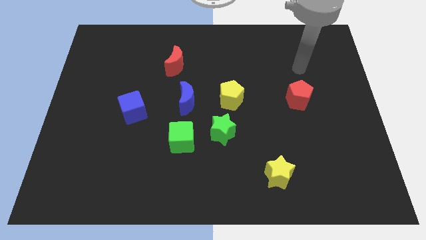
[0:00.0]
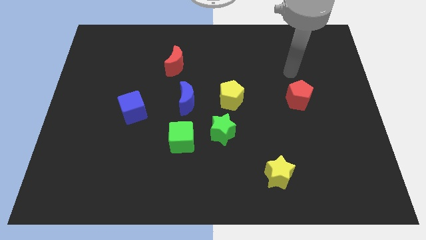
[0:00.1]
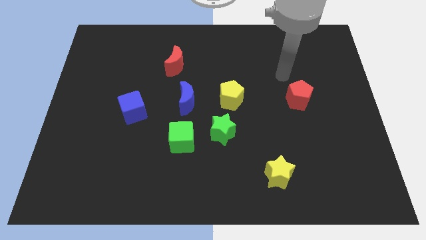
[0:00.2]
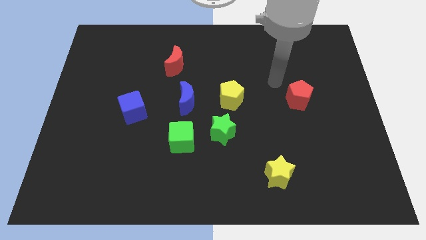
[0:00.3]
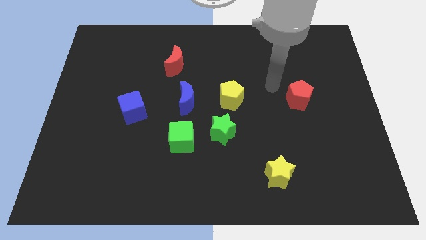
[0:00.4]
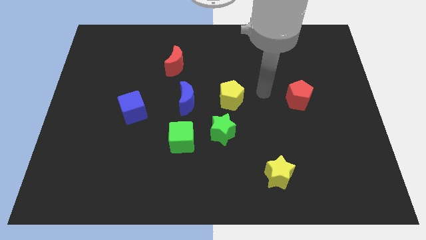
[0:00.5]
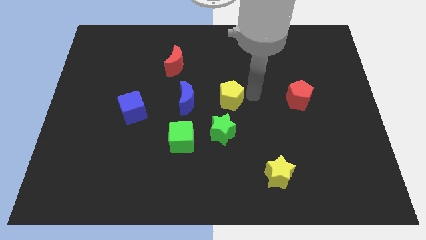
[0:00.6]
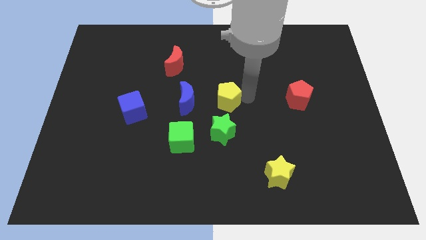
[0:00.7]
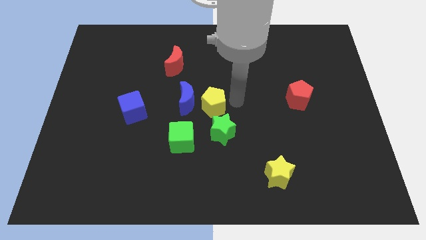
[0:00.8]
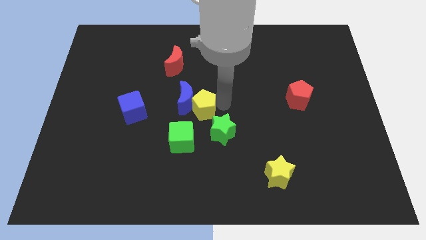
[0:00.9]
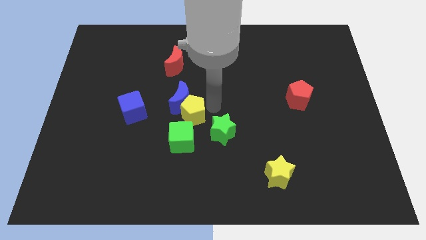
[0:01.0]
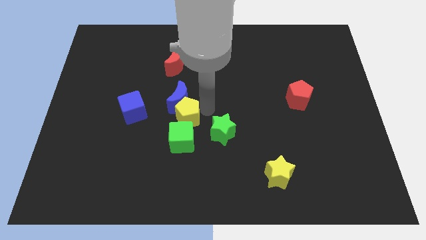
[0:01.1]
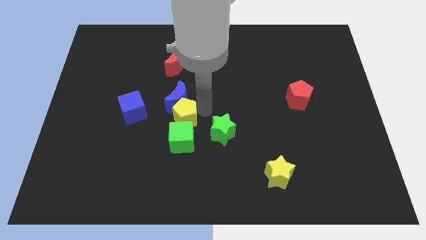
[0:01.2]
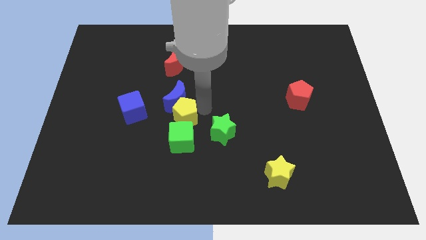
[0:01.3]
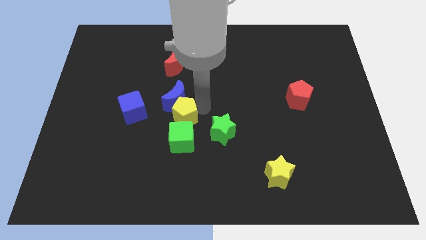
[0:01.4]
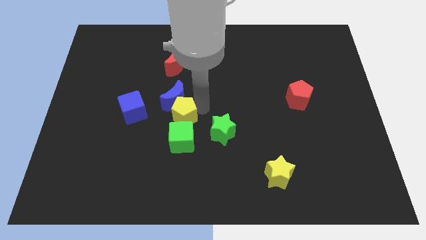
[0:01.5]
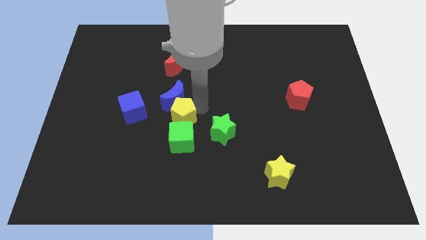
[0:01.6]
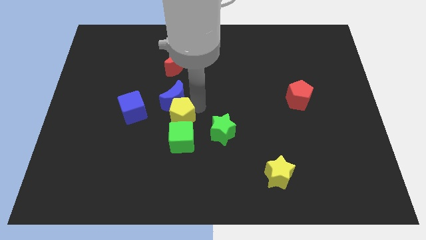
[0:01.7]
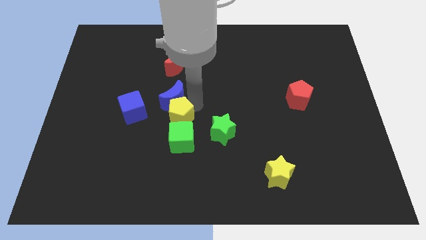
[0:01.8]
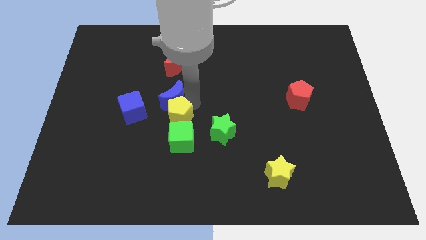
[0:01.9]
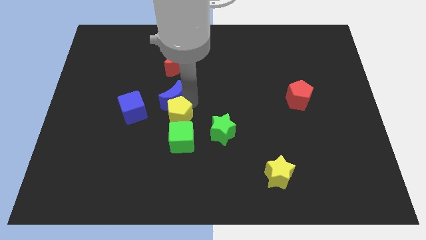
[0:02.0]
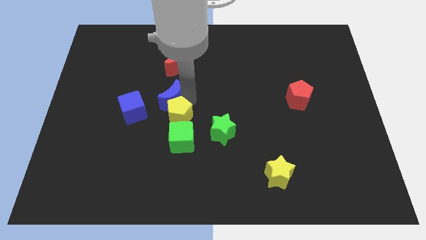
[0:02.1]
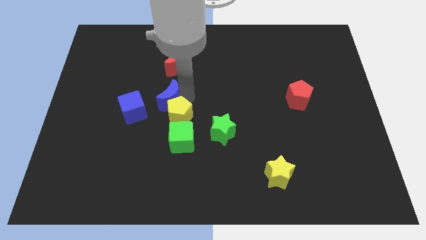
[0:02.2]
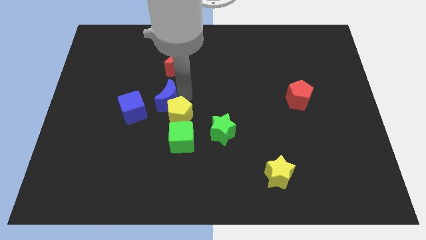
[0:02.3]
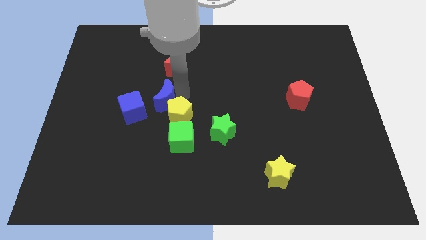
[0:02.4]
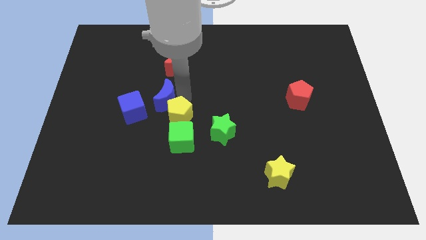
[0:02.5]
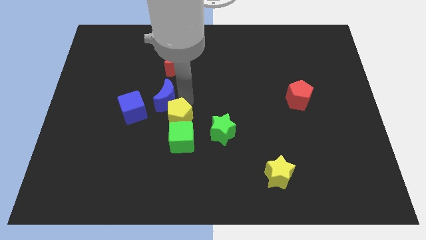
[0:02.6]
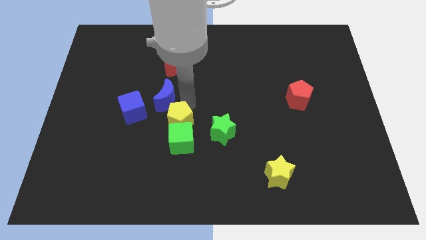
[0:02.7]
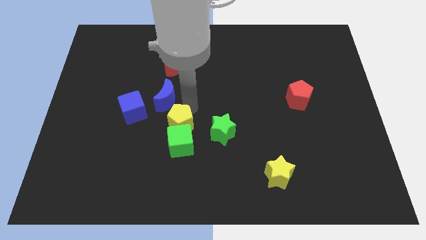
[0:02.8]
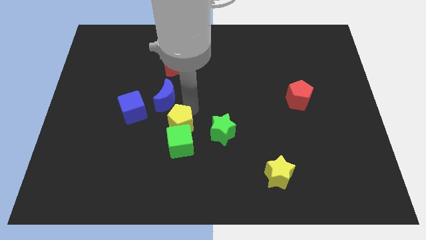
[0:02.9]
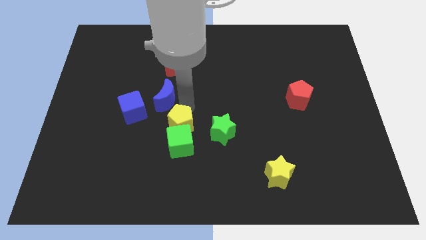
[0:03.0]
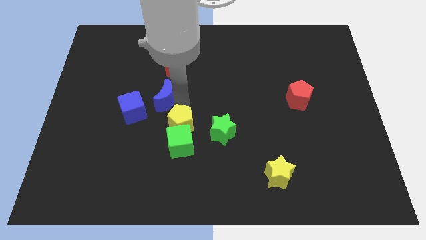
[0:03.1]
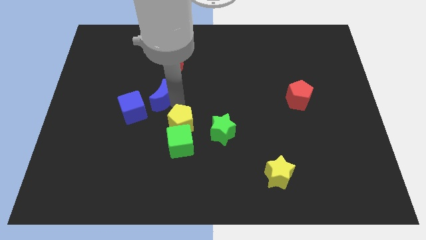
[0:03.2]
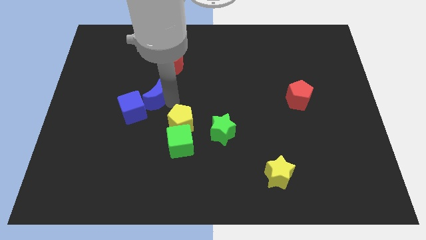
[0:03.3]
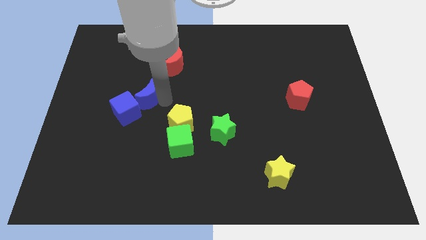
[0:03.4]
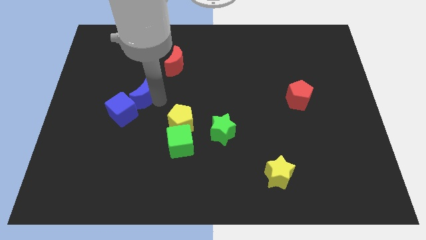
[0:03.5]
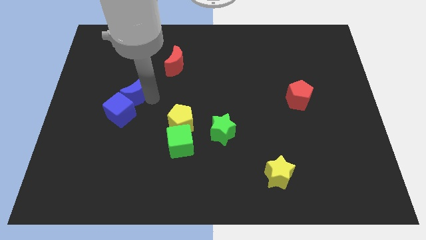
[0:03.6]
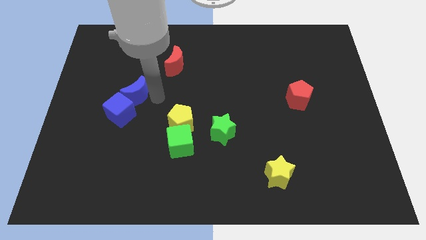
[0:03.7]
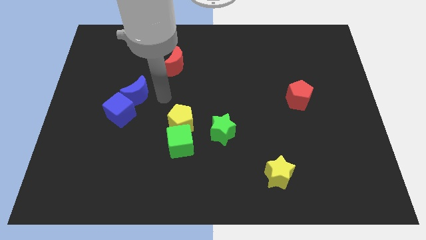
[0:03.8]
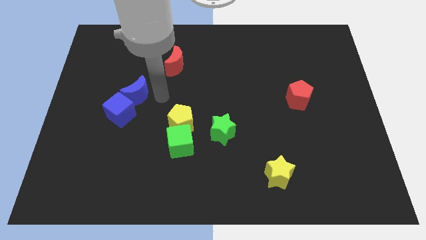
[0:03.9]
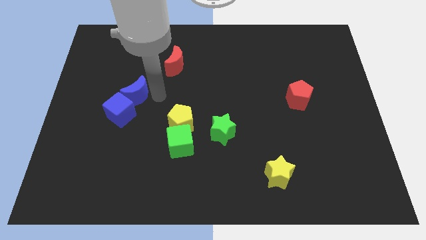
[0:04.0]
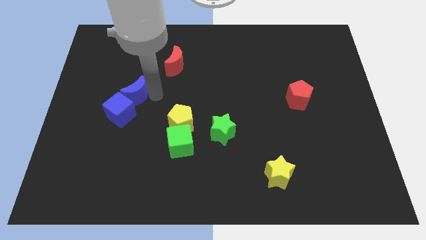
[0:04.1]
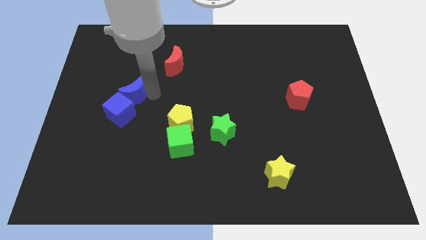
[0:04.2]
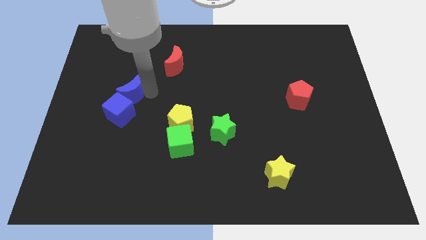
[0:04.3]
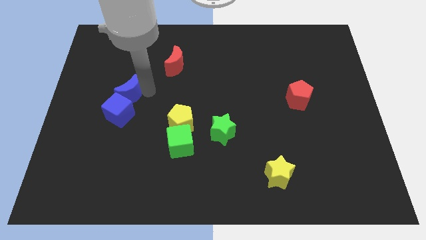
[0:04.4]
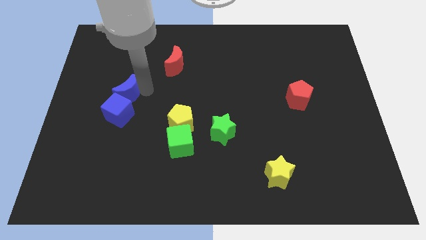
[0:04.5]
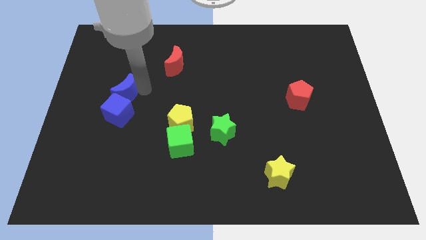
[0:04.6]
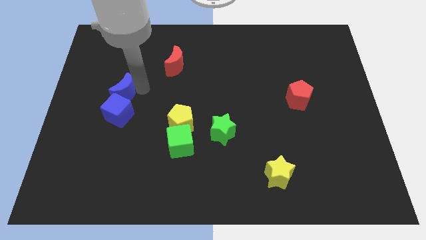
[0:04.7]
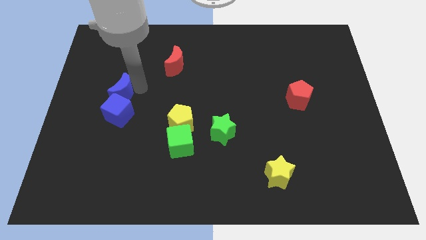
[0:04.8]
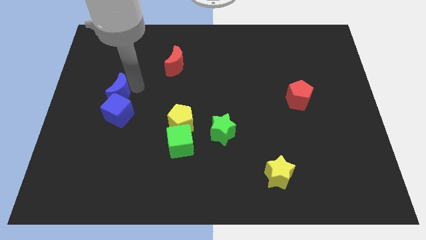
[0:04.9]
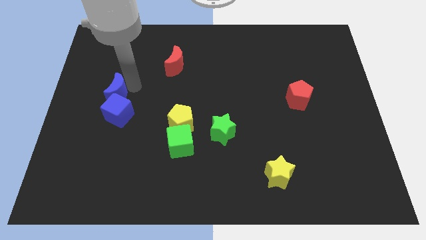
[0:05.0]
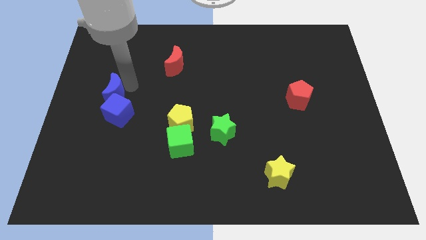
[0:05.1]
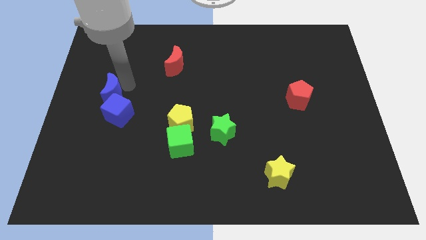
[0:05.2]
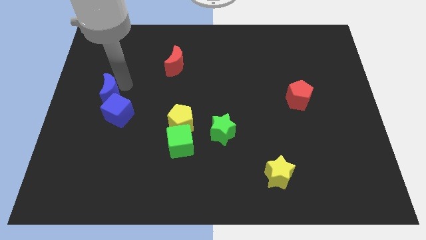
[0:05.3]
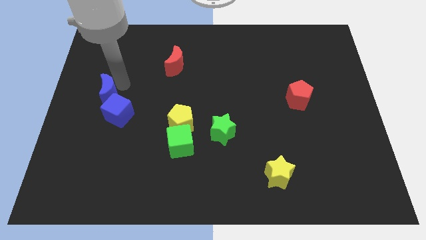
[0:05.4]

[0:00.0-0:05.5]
push the blue moon to the left side

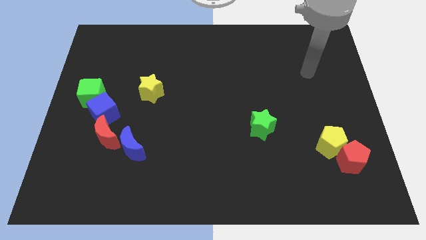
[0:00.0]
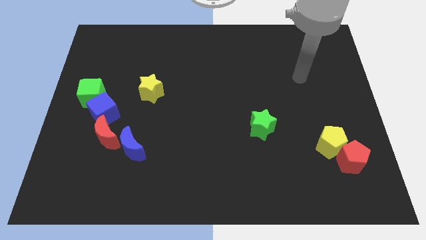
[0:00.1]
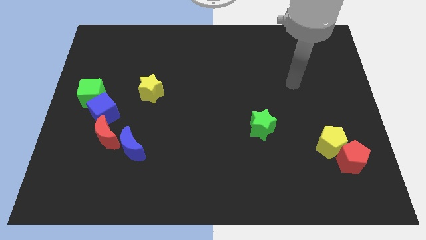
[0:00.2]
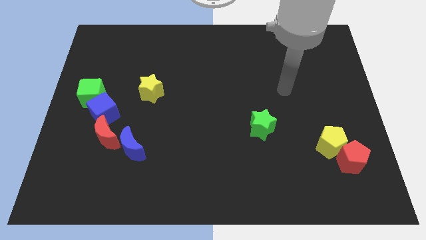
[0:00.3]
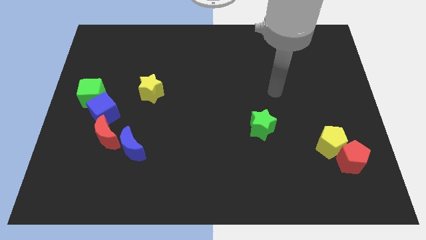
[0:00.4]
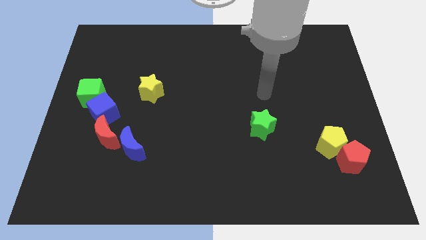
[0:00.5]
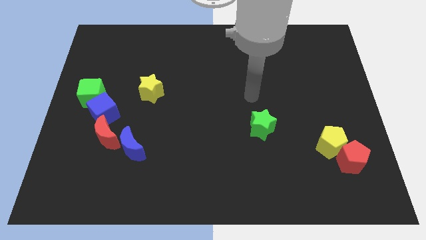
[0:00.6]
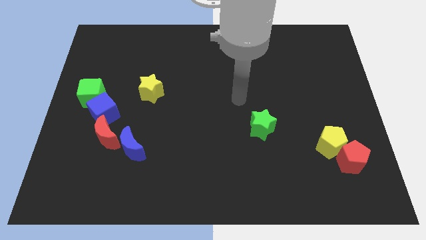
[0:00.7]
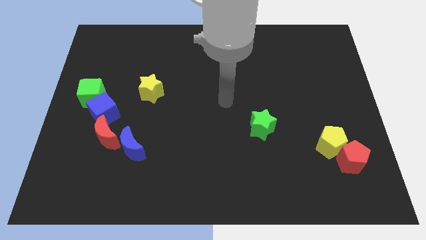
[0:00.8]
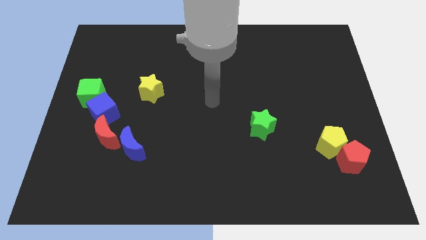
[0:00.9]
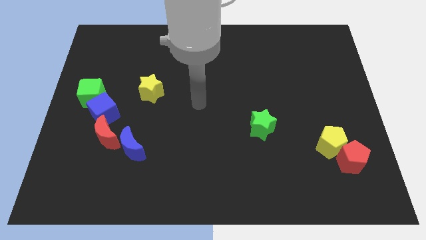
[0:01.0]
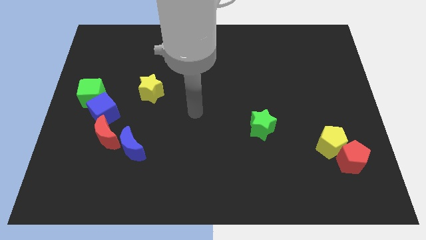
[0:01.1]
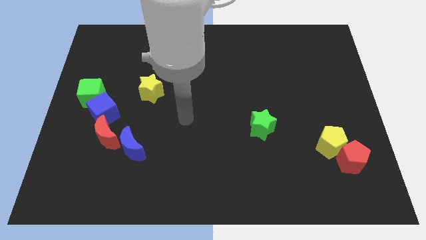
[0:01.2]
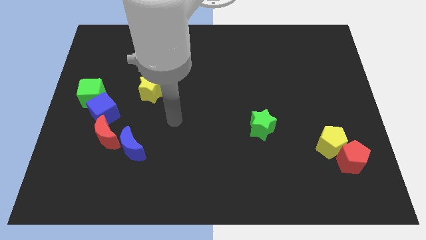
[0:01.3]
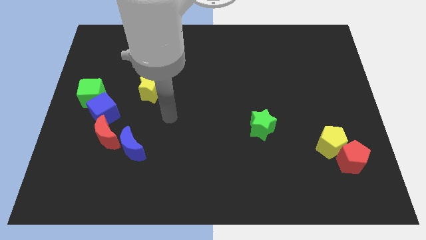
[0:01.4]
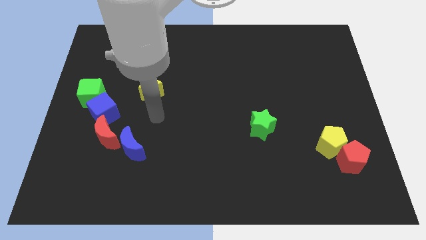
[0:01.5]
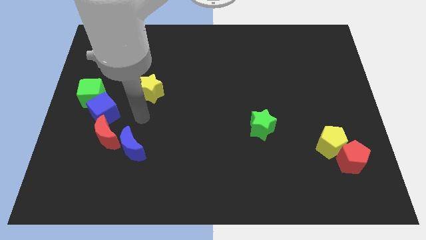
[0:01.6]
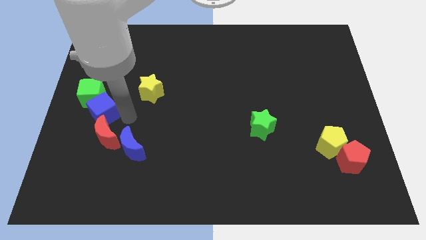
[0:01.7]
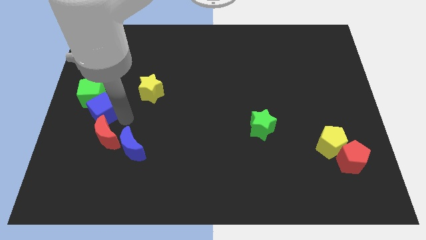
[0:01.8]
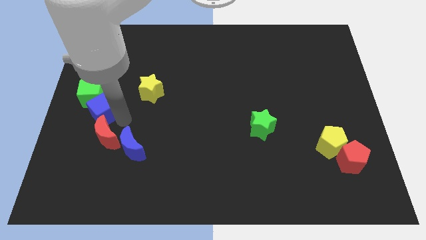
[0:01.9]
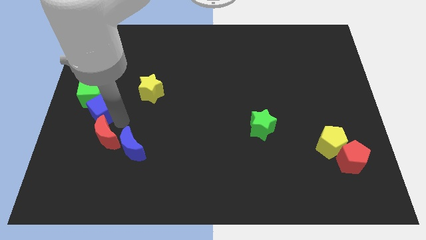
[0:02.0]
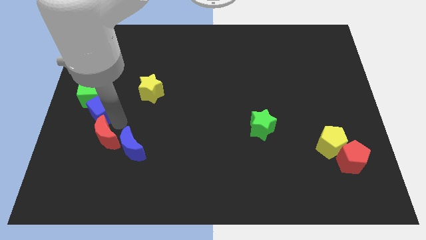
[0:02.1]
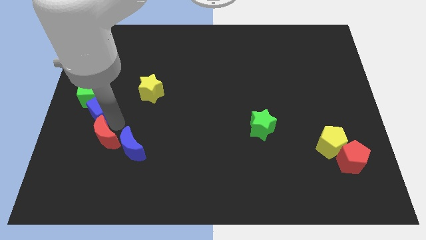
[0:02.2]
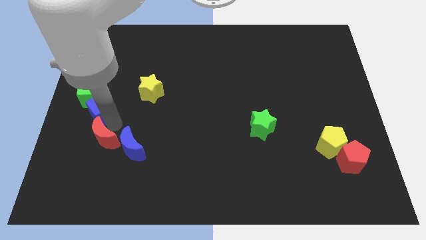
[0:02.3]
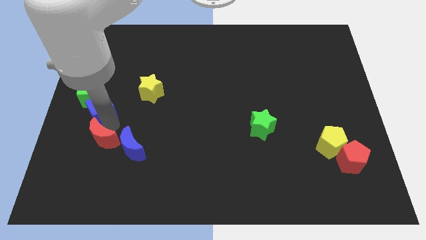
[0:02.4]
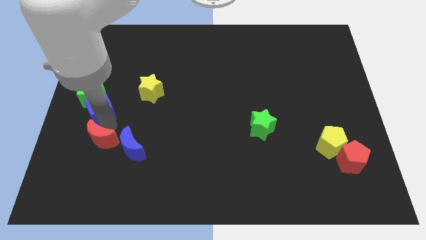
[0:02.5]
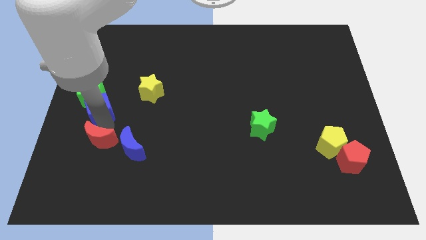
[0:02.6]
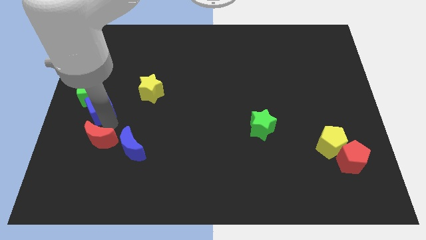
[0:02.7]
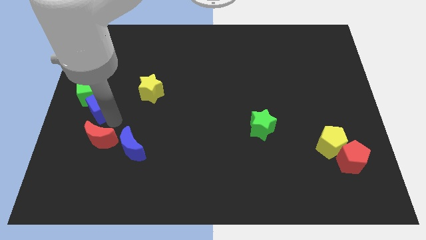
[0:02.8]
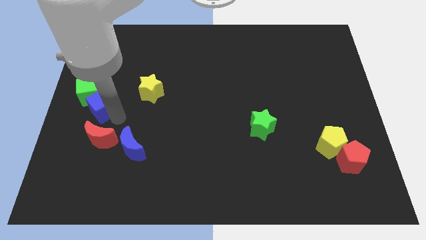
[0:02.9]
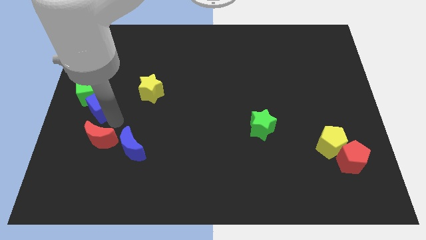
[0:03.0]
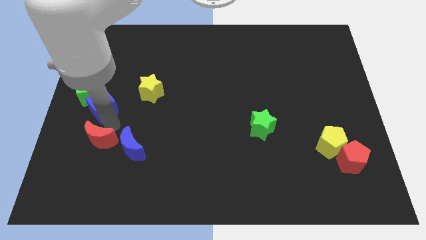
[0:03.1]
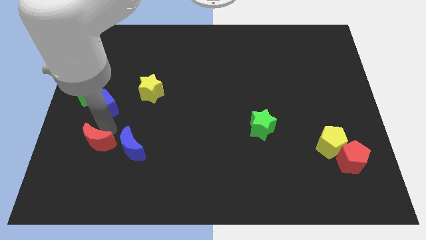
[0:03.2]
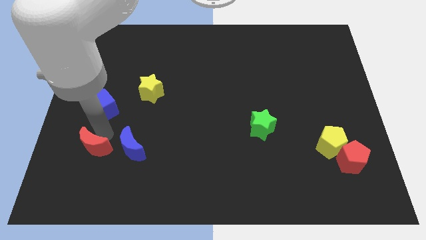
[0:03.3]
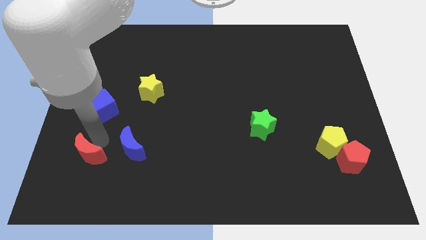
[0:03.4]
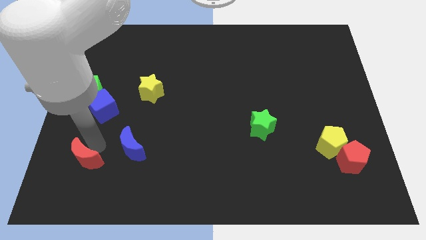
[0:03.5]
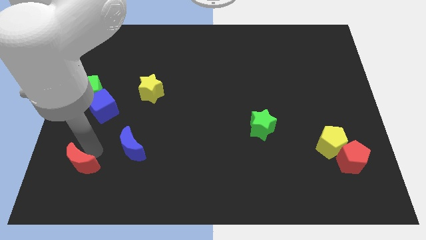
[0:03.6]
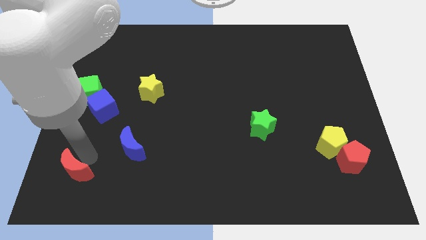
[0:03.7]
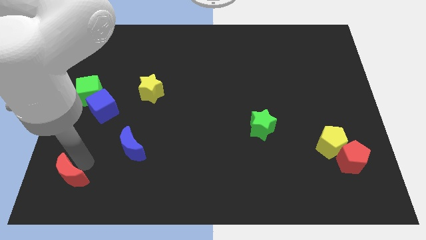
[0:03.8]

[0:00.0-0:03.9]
move the red moon to the bottom left corner
